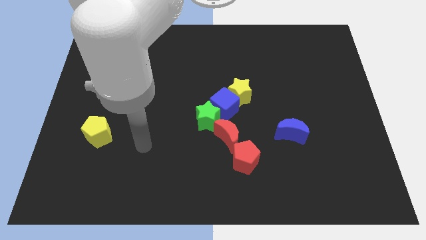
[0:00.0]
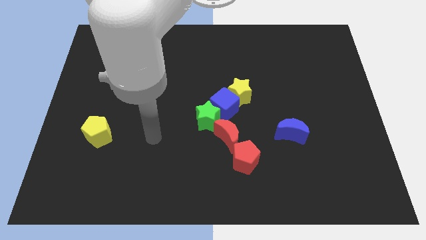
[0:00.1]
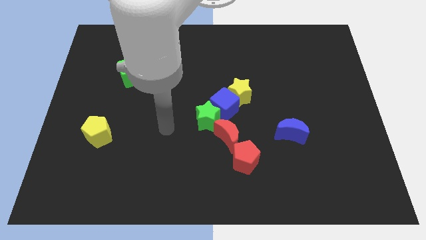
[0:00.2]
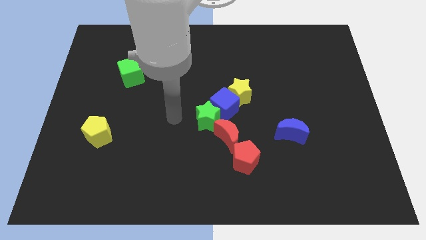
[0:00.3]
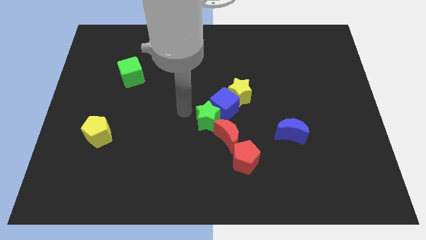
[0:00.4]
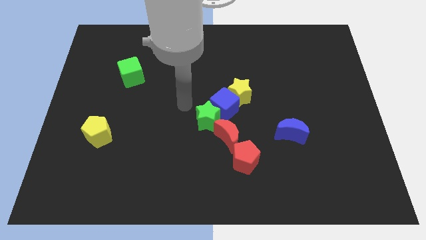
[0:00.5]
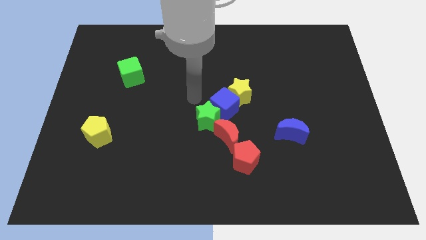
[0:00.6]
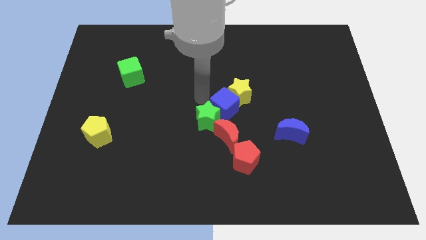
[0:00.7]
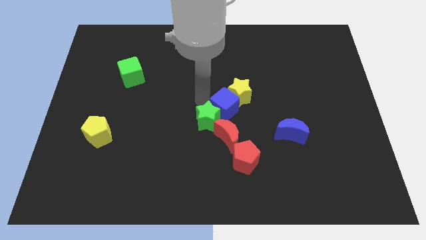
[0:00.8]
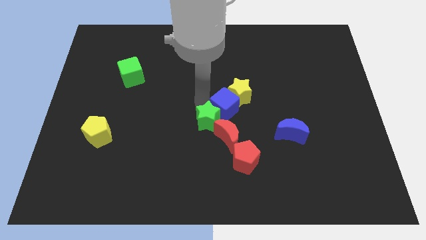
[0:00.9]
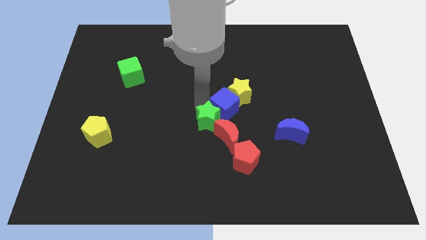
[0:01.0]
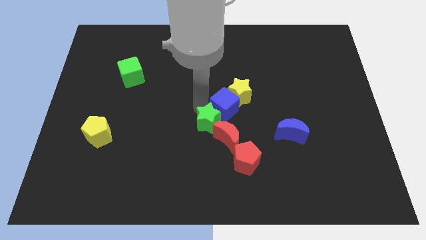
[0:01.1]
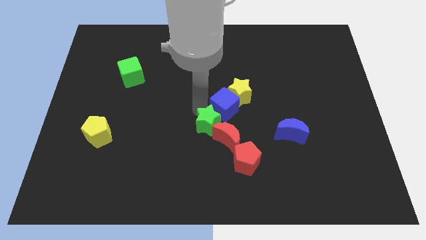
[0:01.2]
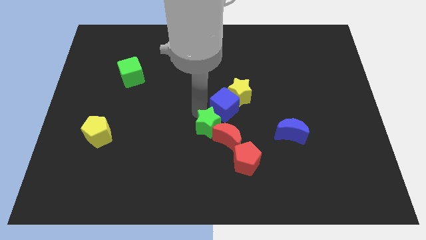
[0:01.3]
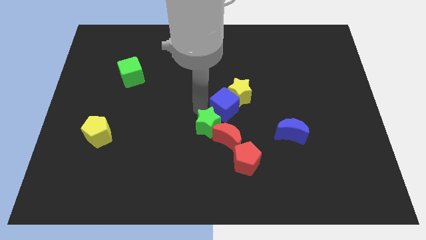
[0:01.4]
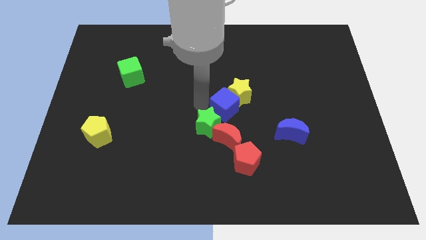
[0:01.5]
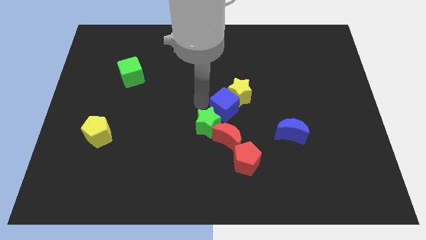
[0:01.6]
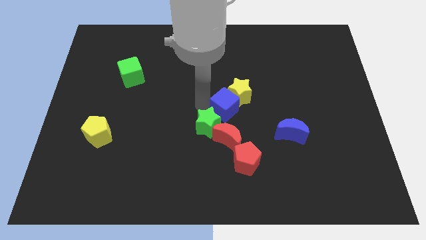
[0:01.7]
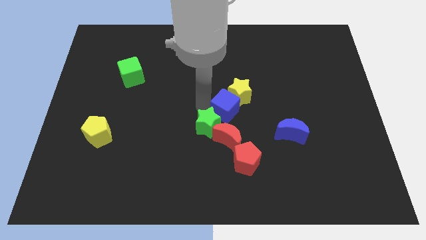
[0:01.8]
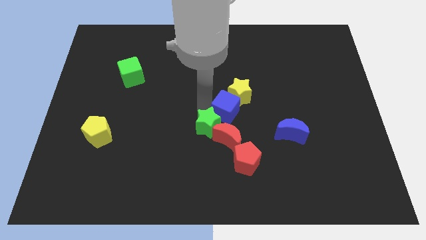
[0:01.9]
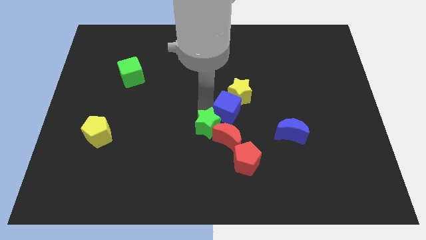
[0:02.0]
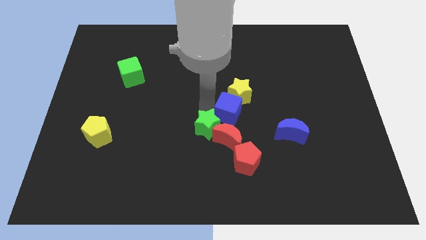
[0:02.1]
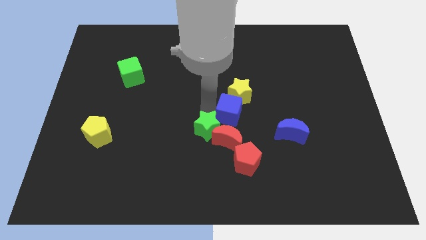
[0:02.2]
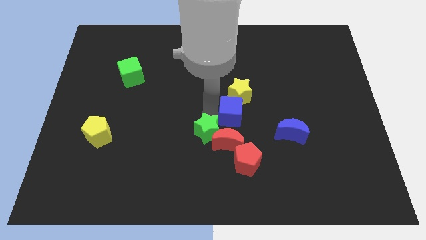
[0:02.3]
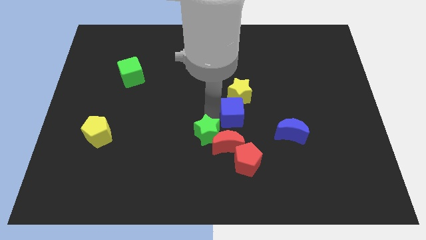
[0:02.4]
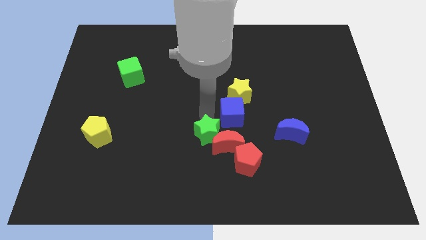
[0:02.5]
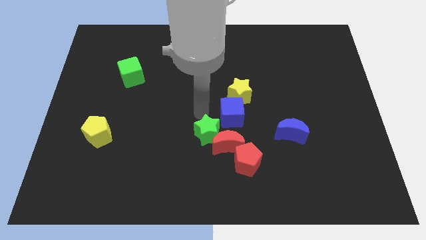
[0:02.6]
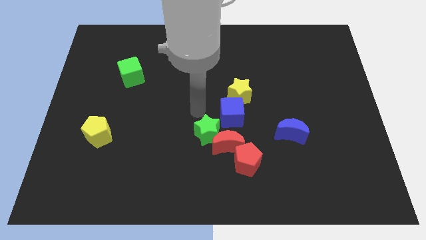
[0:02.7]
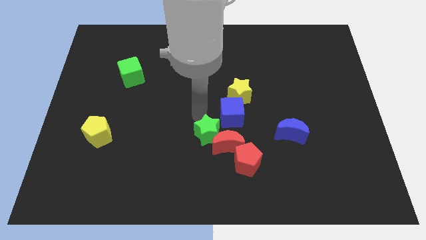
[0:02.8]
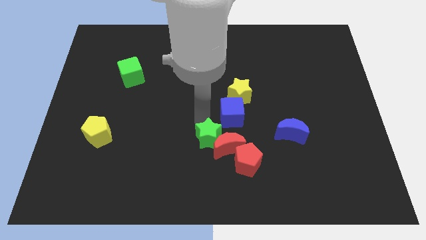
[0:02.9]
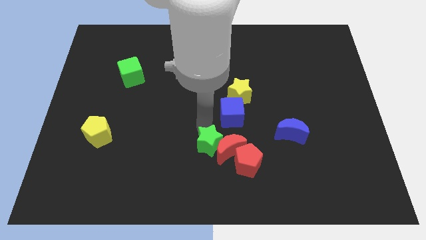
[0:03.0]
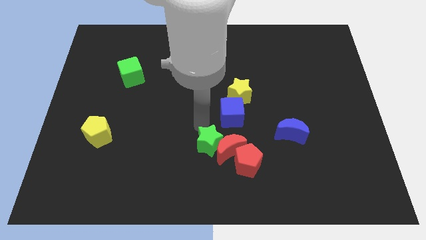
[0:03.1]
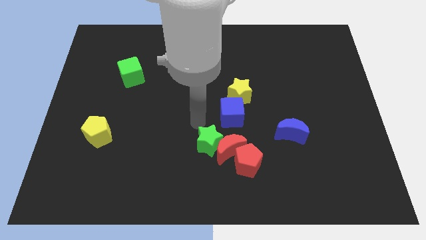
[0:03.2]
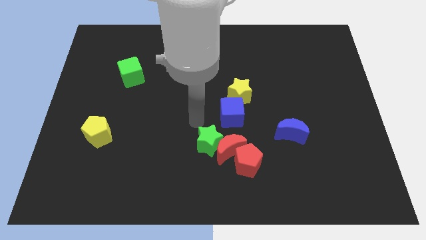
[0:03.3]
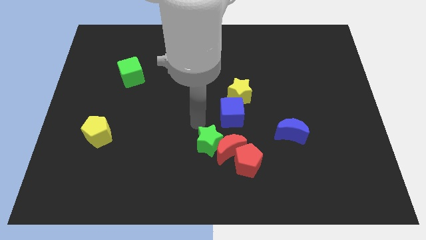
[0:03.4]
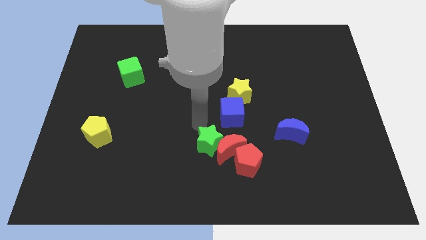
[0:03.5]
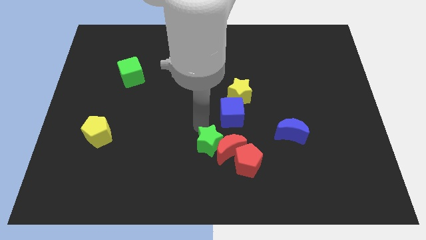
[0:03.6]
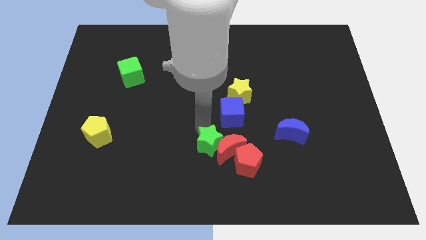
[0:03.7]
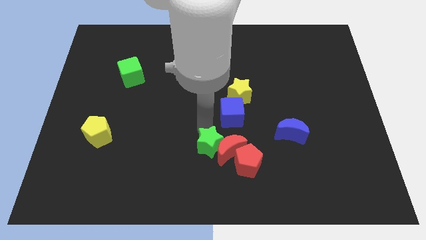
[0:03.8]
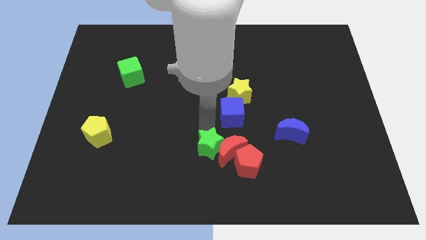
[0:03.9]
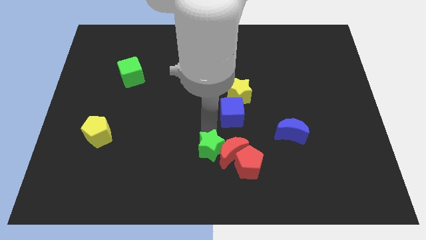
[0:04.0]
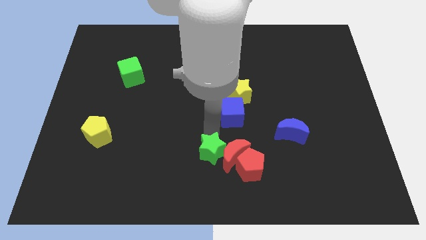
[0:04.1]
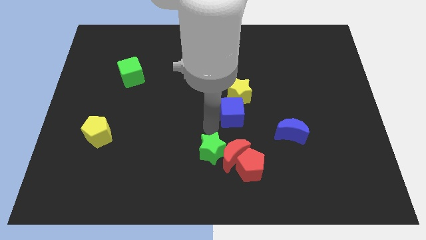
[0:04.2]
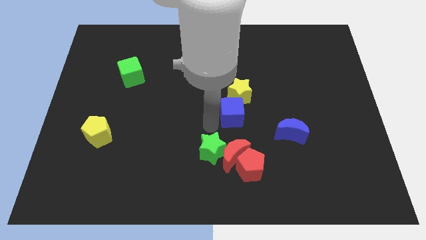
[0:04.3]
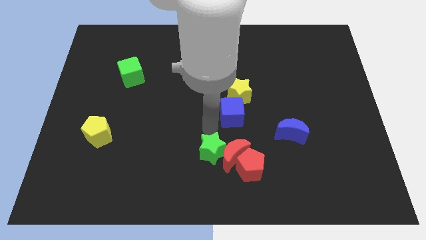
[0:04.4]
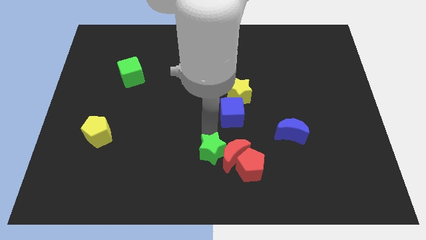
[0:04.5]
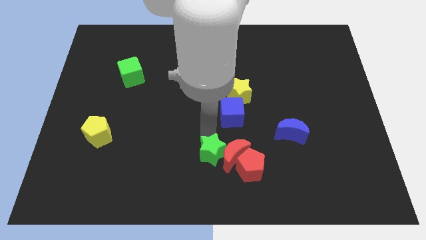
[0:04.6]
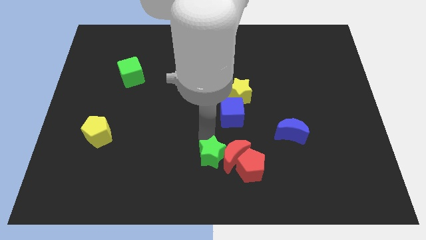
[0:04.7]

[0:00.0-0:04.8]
move the green star to the bottom

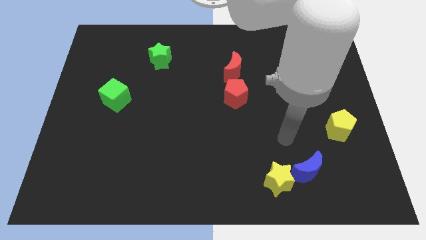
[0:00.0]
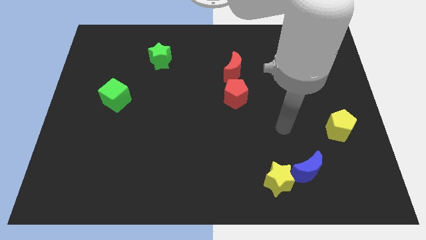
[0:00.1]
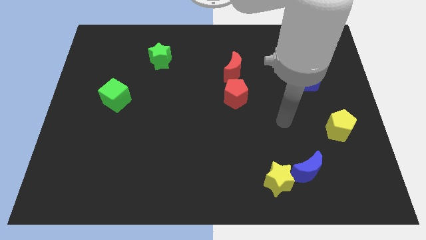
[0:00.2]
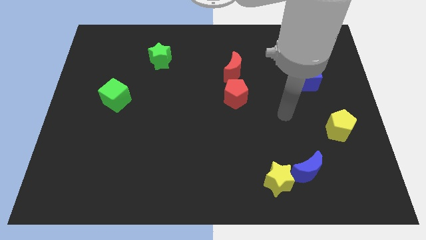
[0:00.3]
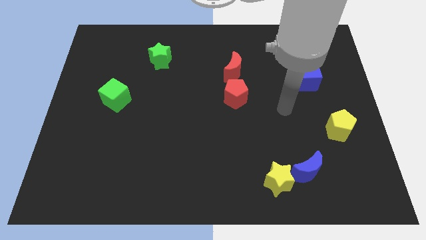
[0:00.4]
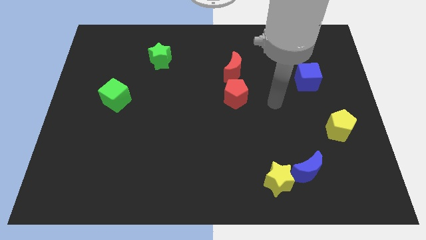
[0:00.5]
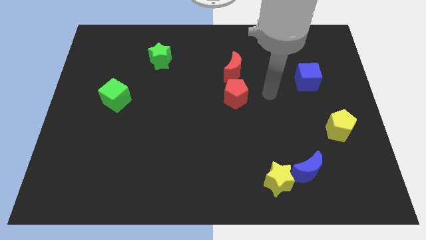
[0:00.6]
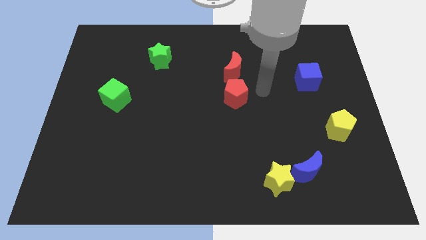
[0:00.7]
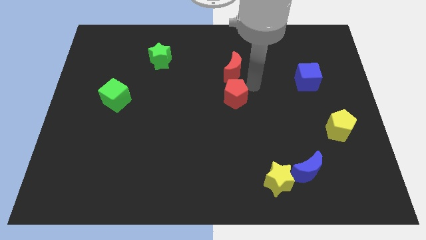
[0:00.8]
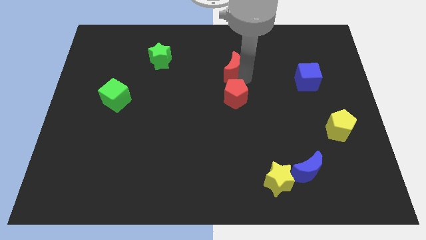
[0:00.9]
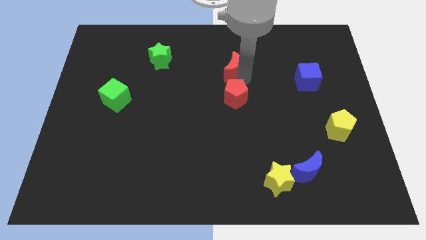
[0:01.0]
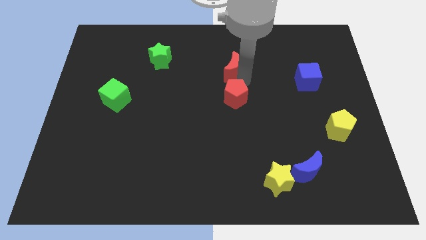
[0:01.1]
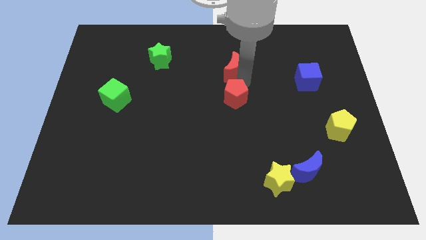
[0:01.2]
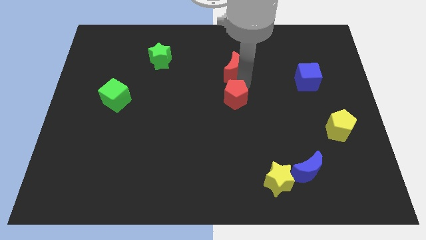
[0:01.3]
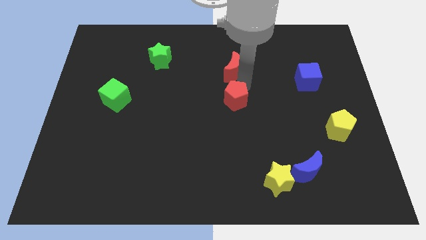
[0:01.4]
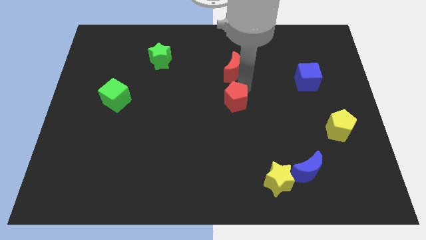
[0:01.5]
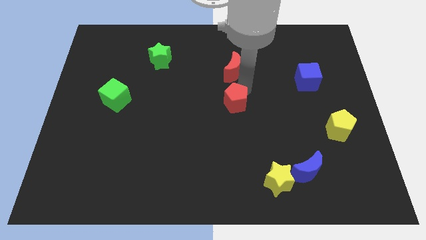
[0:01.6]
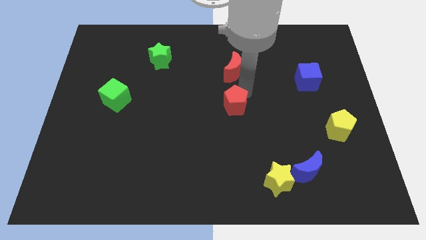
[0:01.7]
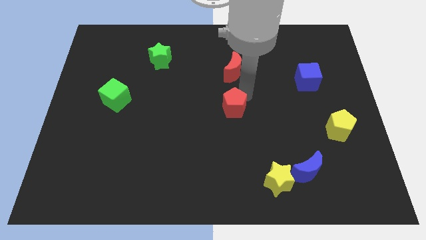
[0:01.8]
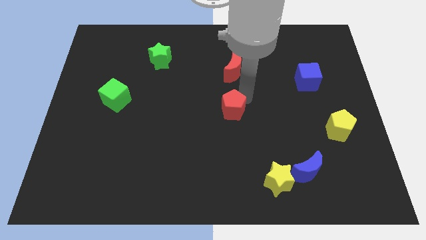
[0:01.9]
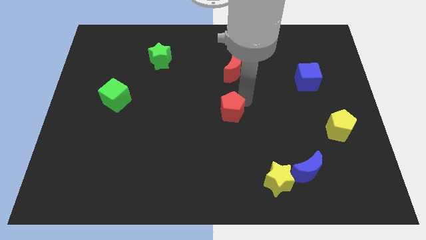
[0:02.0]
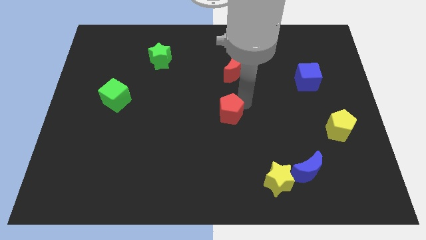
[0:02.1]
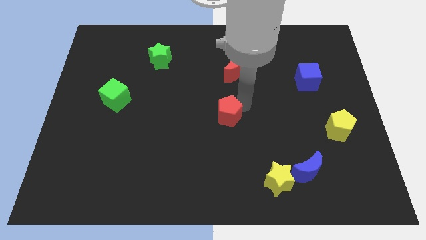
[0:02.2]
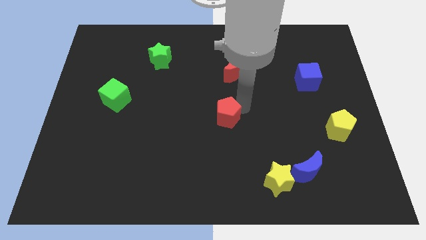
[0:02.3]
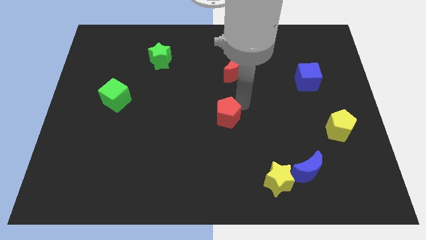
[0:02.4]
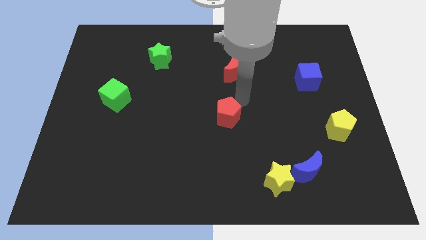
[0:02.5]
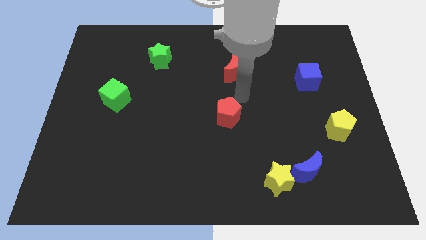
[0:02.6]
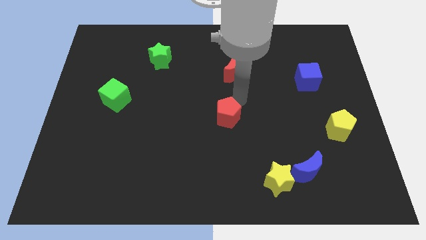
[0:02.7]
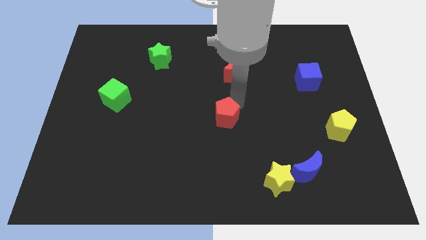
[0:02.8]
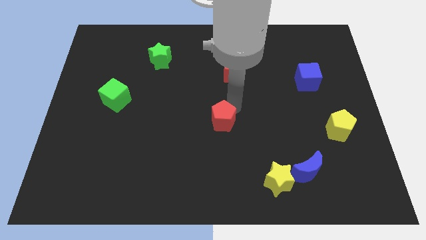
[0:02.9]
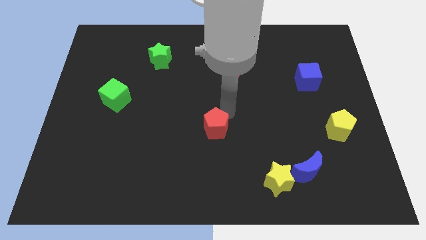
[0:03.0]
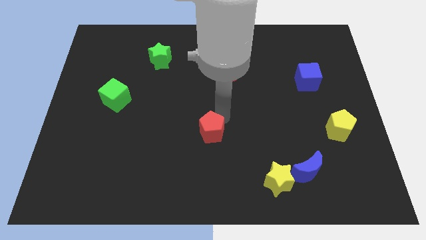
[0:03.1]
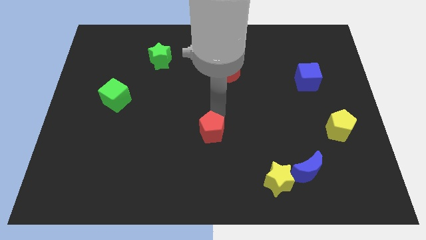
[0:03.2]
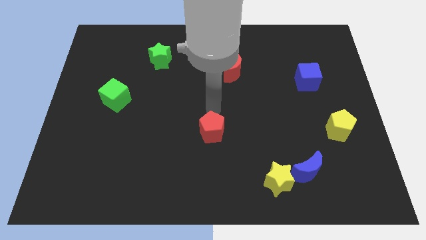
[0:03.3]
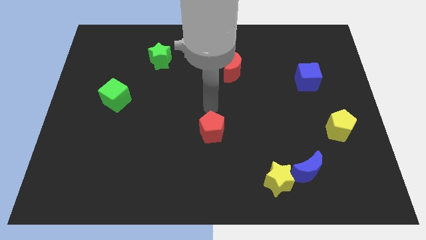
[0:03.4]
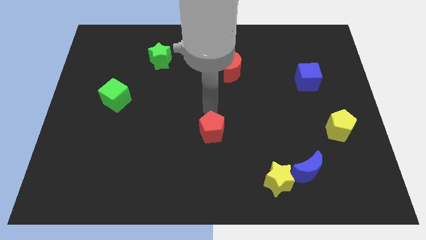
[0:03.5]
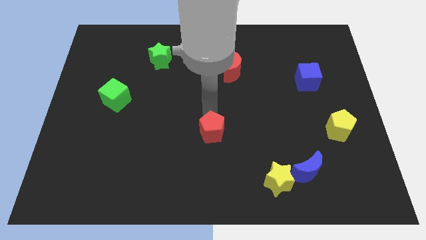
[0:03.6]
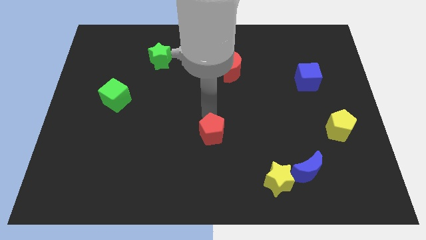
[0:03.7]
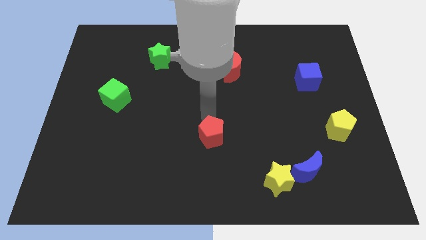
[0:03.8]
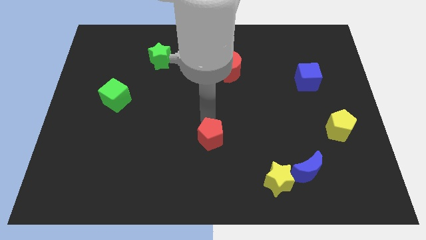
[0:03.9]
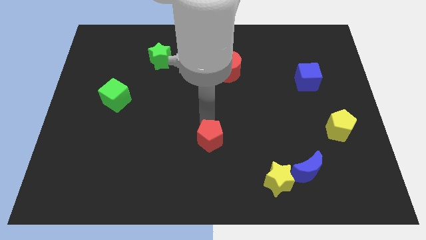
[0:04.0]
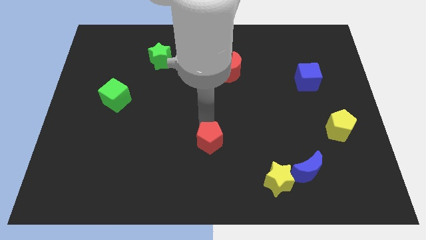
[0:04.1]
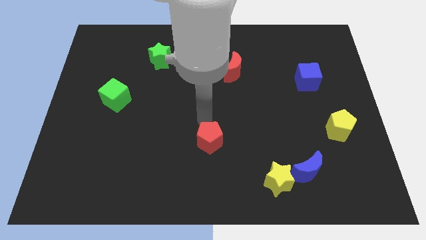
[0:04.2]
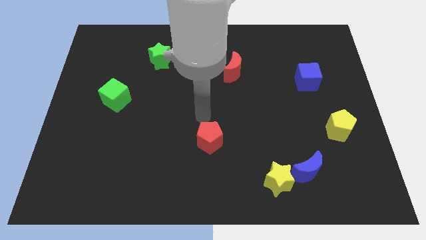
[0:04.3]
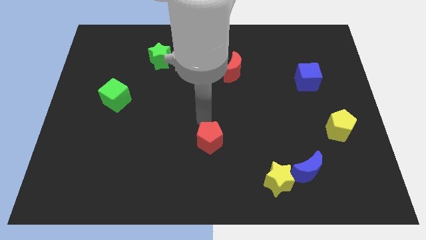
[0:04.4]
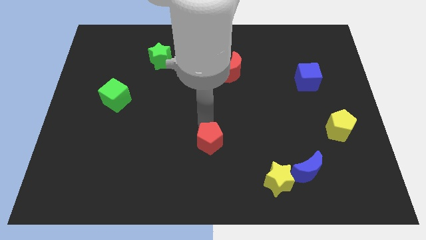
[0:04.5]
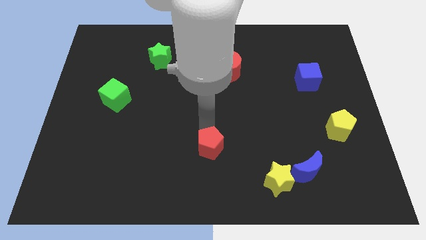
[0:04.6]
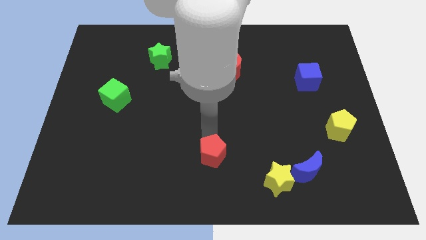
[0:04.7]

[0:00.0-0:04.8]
move the red pentagon to the bottom
